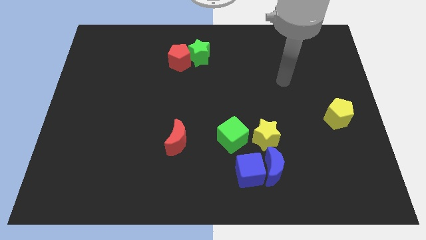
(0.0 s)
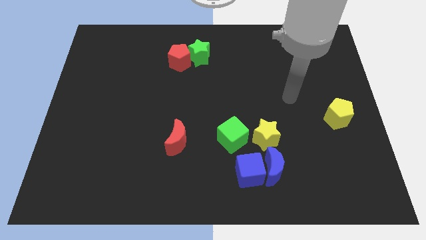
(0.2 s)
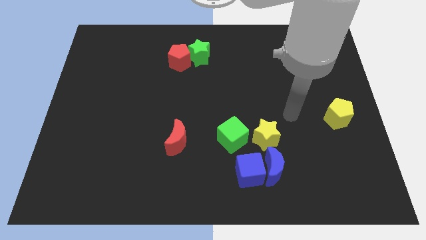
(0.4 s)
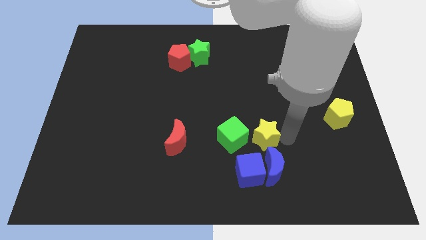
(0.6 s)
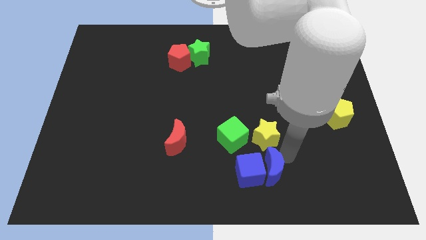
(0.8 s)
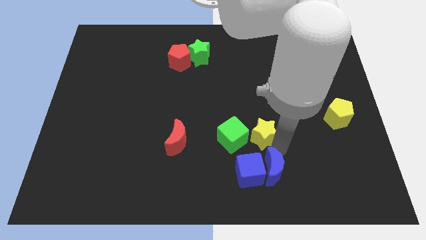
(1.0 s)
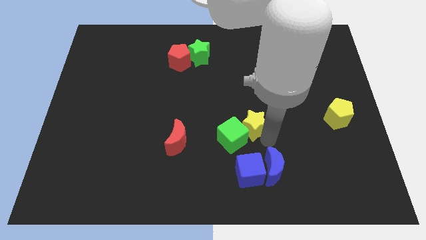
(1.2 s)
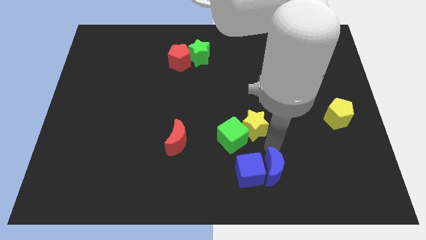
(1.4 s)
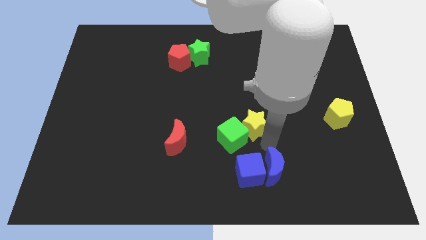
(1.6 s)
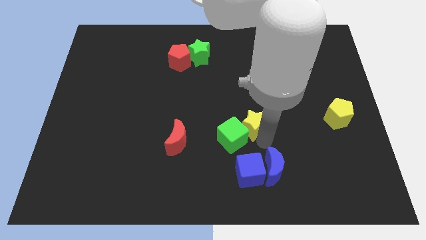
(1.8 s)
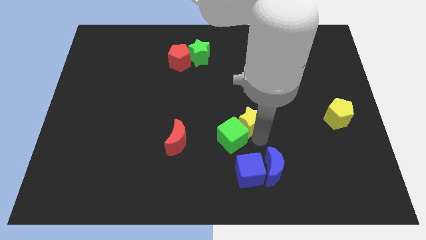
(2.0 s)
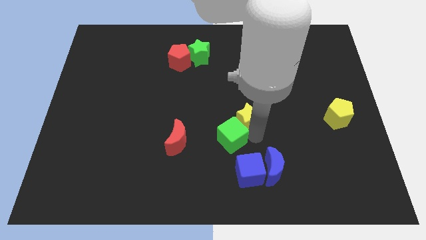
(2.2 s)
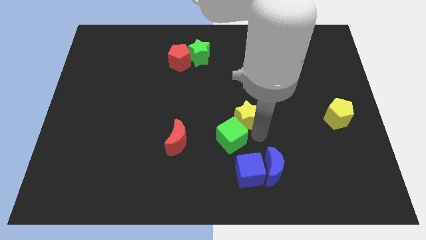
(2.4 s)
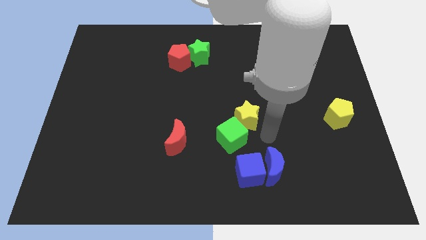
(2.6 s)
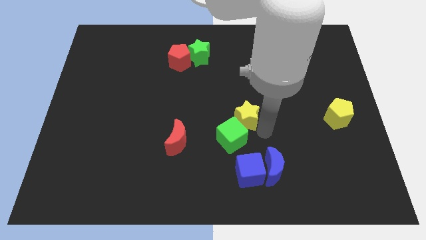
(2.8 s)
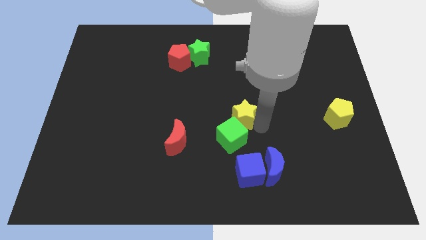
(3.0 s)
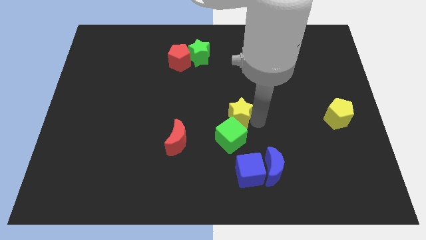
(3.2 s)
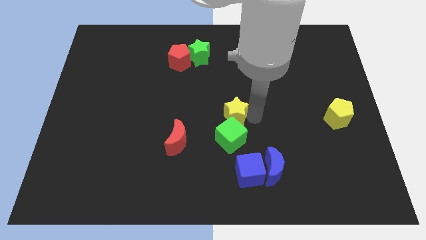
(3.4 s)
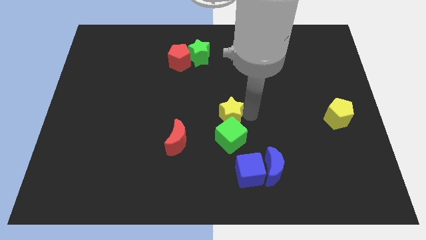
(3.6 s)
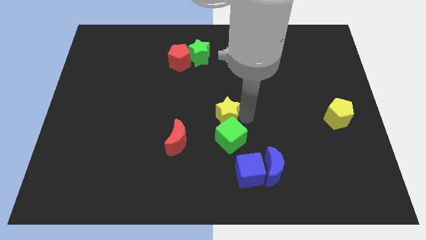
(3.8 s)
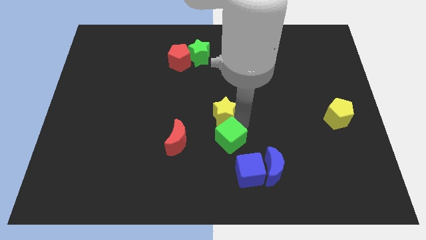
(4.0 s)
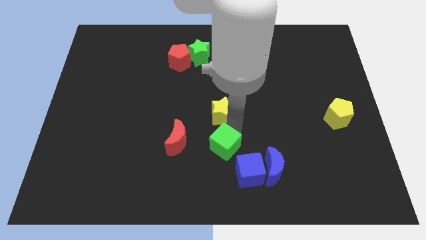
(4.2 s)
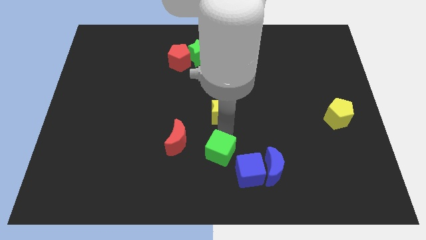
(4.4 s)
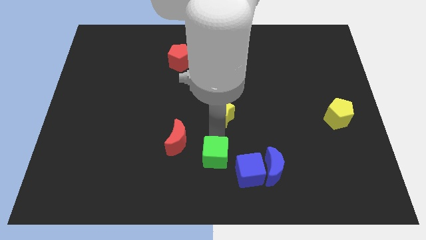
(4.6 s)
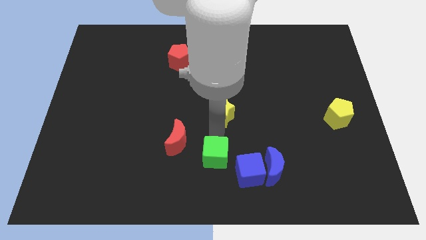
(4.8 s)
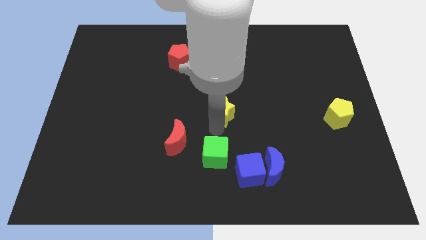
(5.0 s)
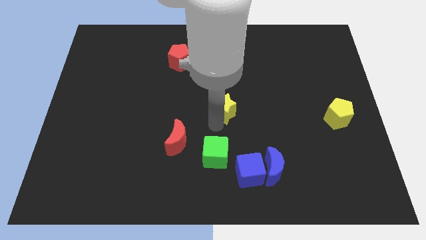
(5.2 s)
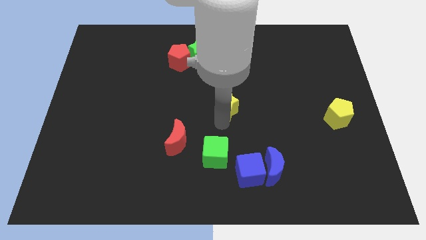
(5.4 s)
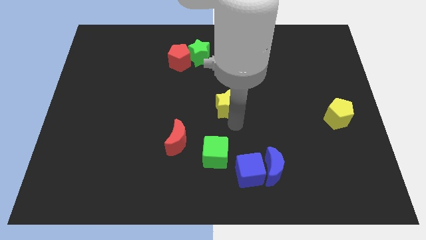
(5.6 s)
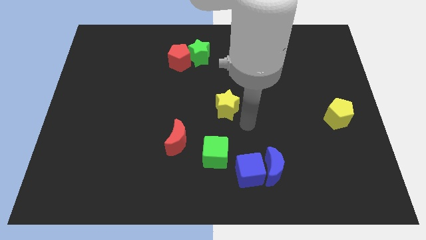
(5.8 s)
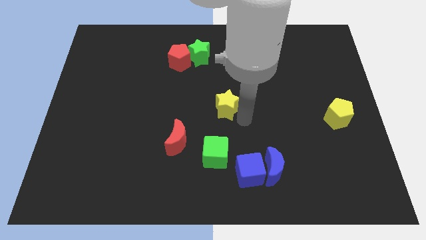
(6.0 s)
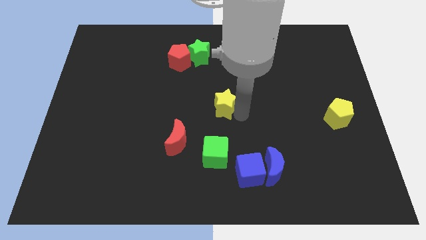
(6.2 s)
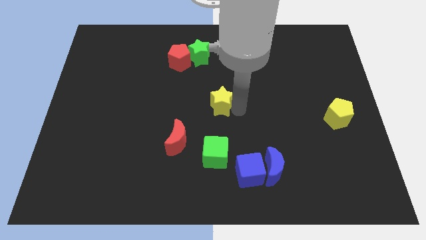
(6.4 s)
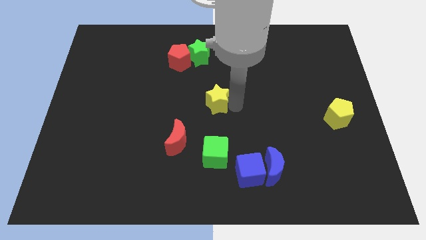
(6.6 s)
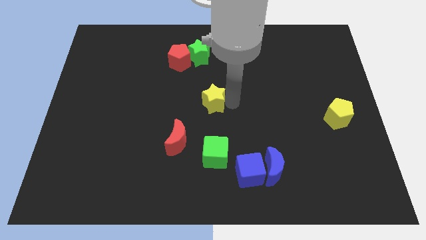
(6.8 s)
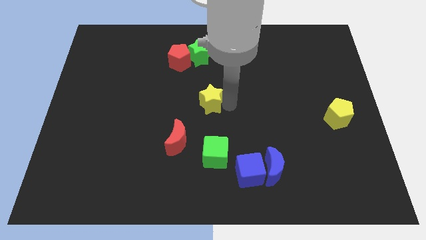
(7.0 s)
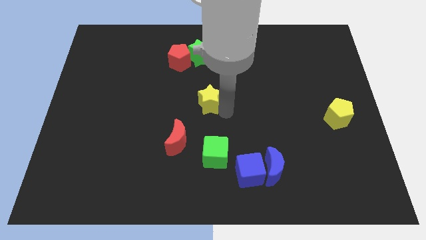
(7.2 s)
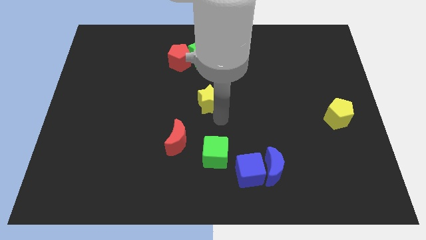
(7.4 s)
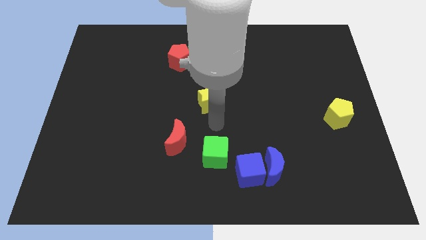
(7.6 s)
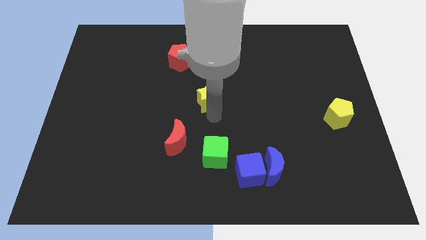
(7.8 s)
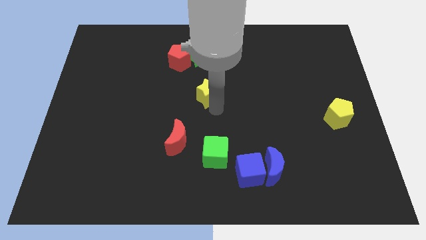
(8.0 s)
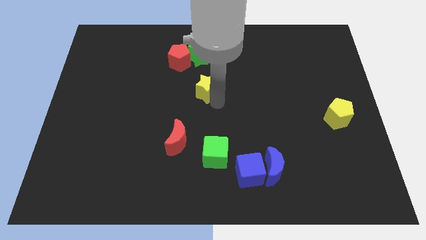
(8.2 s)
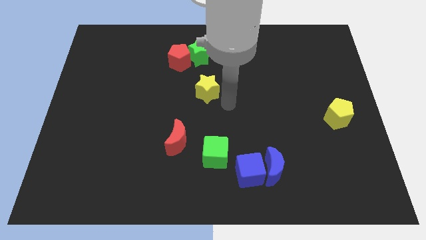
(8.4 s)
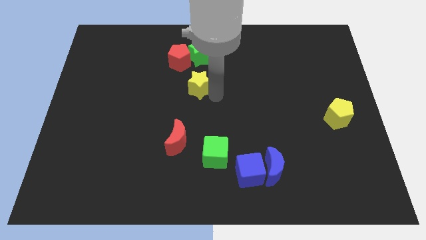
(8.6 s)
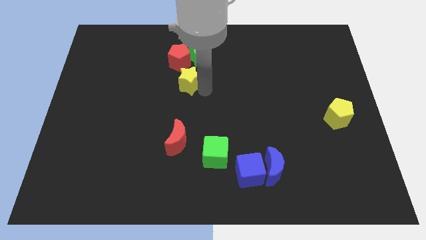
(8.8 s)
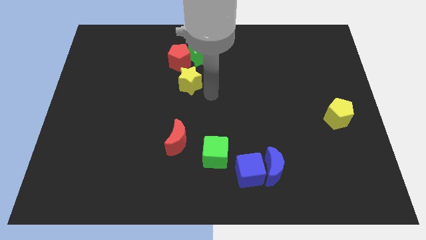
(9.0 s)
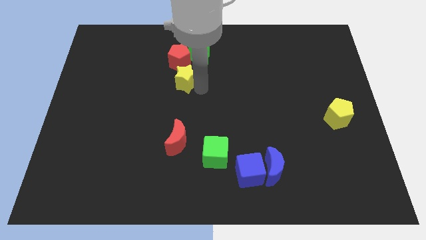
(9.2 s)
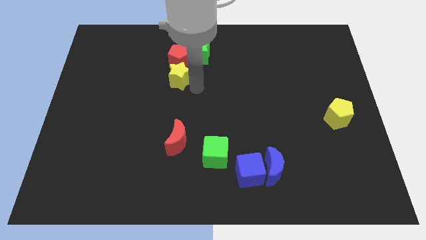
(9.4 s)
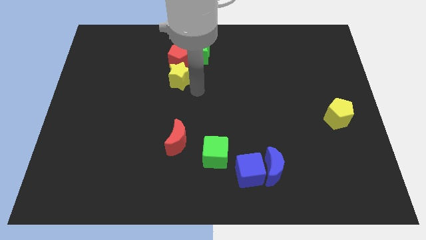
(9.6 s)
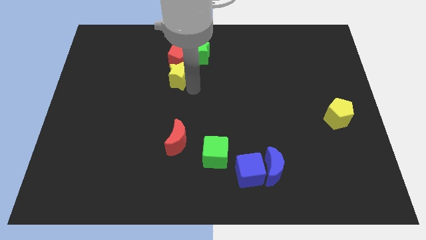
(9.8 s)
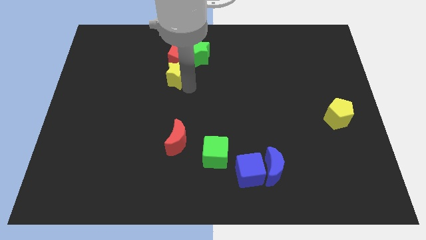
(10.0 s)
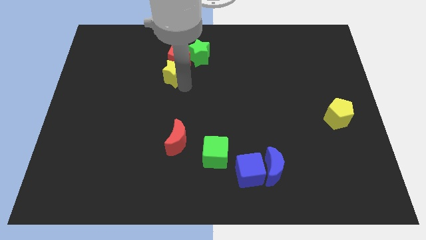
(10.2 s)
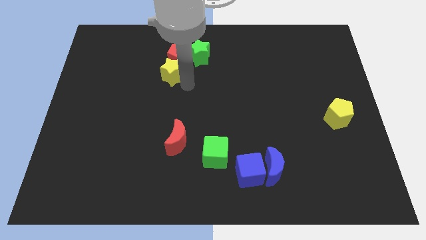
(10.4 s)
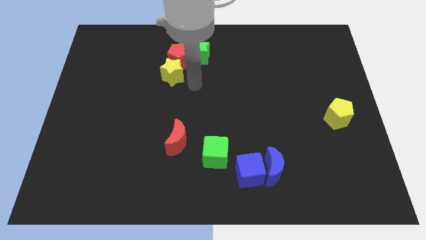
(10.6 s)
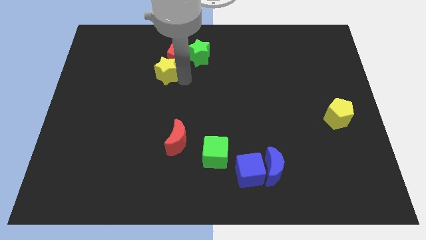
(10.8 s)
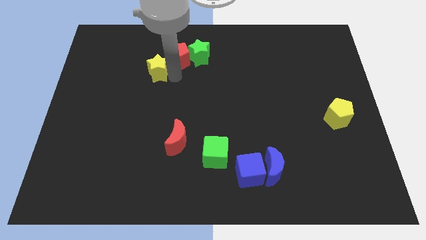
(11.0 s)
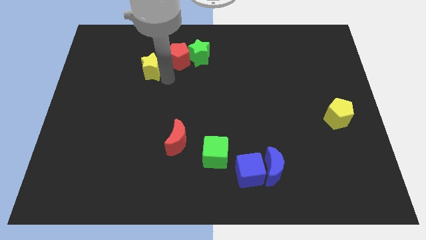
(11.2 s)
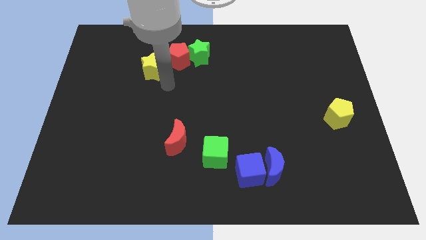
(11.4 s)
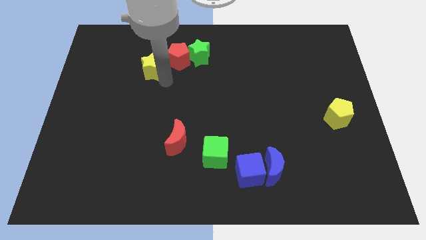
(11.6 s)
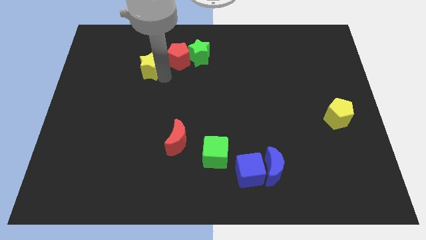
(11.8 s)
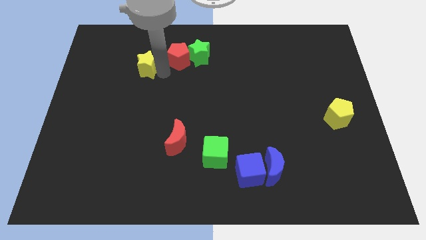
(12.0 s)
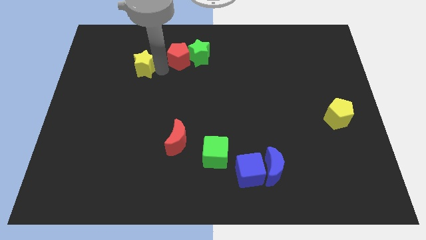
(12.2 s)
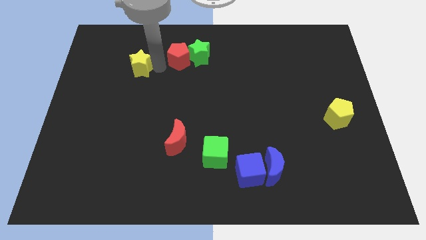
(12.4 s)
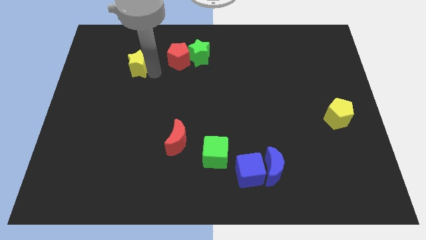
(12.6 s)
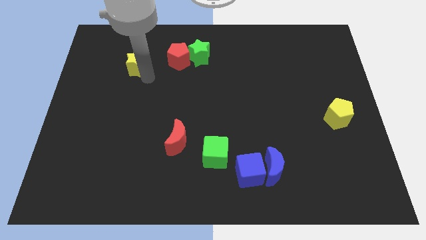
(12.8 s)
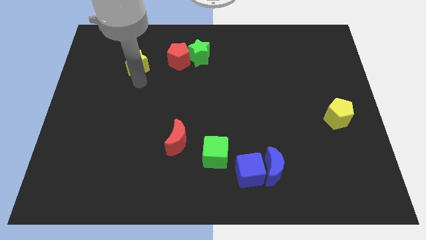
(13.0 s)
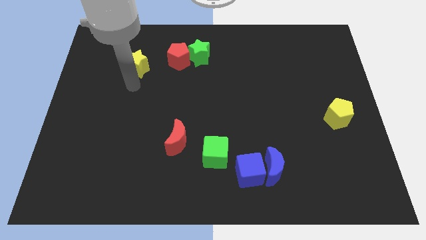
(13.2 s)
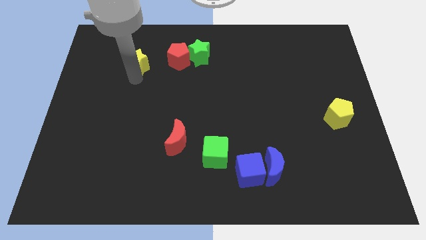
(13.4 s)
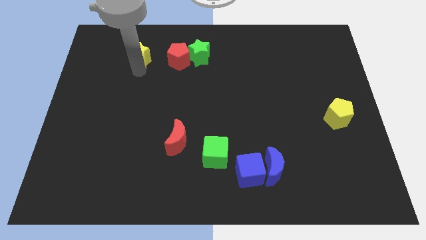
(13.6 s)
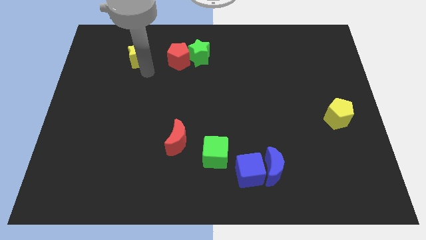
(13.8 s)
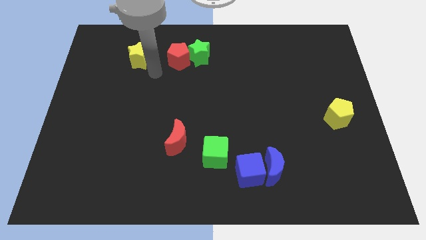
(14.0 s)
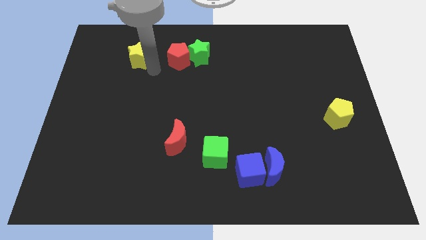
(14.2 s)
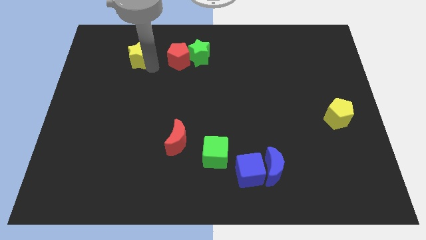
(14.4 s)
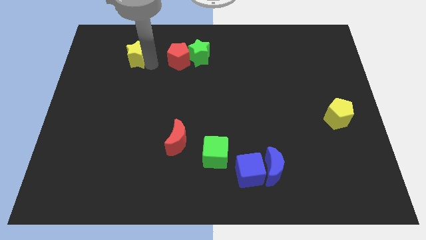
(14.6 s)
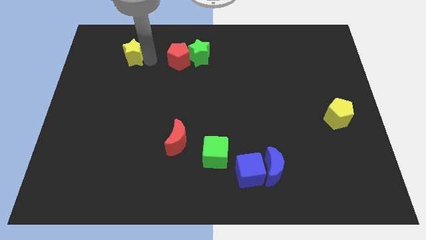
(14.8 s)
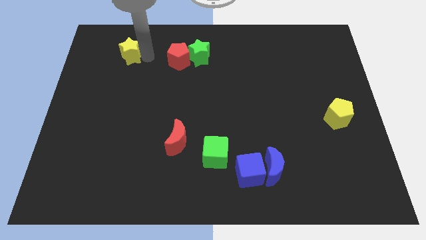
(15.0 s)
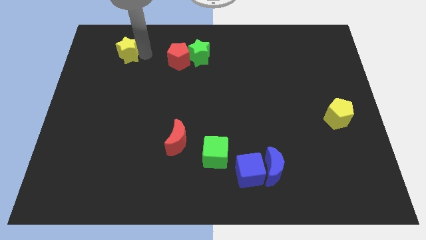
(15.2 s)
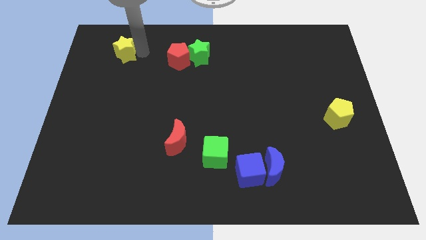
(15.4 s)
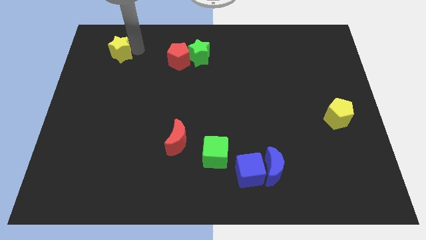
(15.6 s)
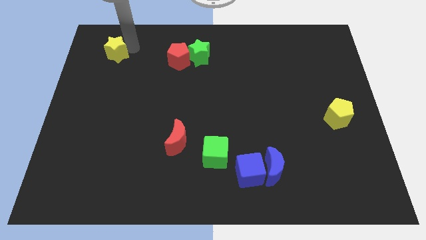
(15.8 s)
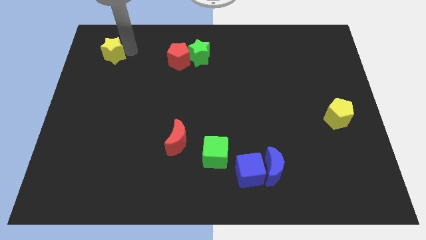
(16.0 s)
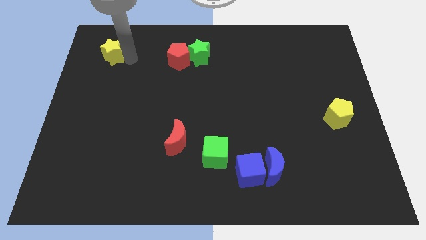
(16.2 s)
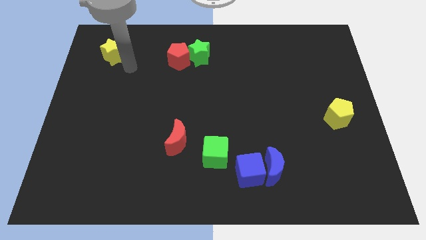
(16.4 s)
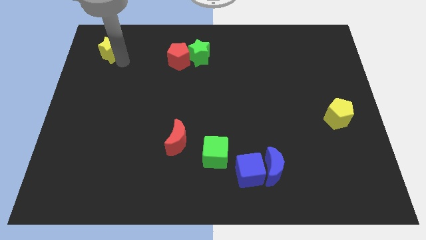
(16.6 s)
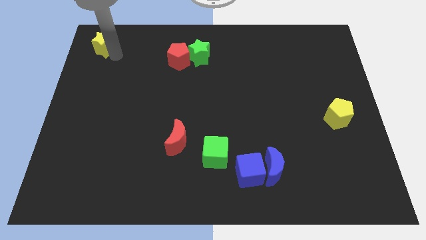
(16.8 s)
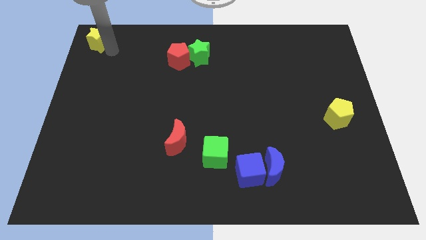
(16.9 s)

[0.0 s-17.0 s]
put the yellow star to the top left of the board
